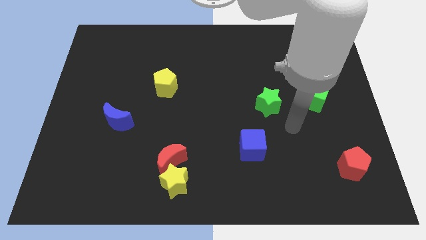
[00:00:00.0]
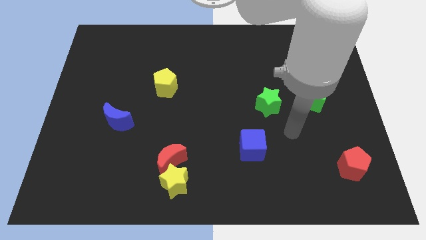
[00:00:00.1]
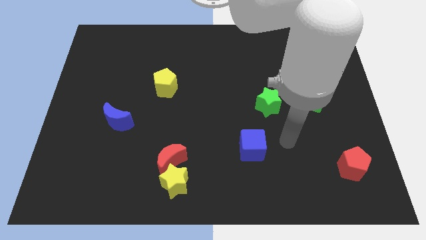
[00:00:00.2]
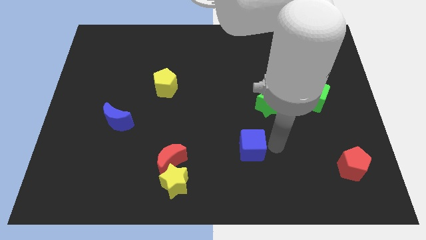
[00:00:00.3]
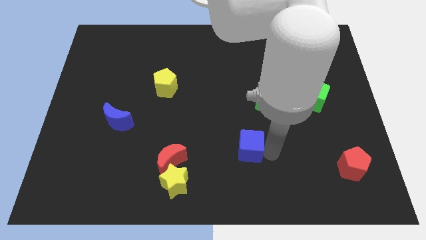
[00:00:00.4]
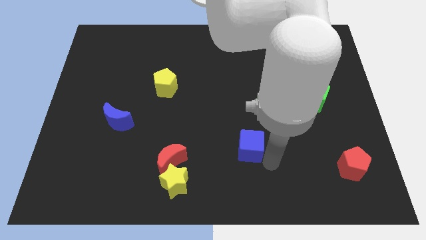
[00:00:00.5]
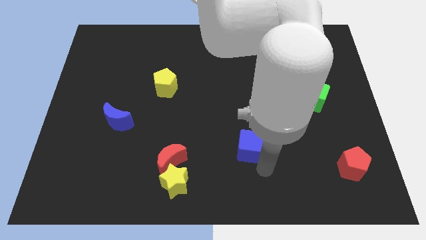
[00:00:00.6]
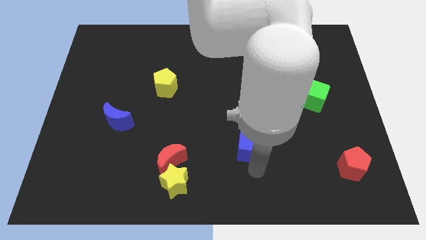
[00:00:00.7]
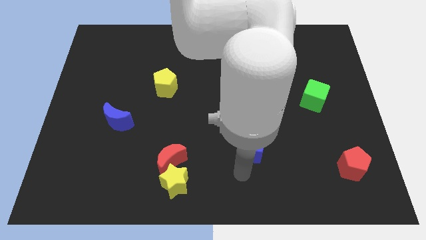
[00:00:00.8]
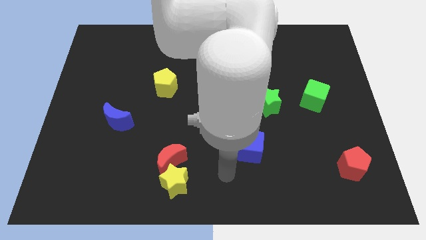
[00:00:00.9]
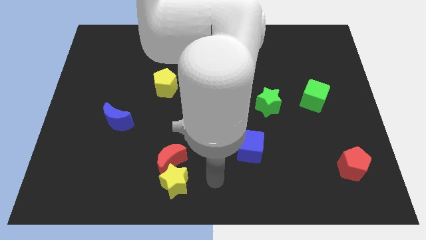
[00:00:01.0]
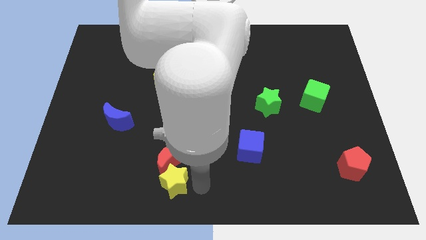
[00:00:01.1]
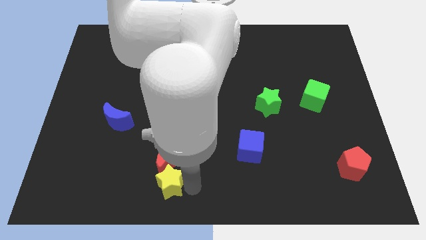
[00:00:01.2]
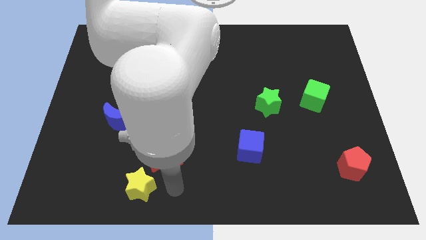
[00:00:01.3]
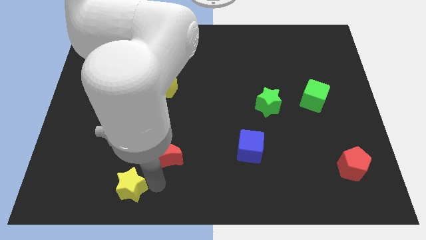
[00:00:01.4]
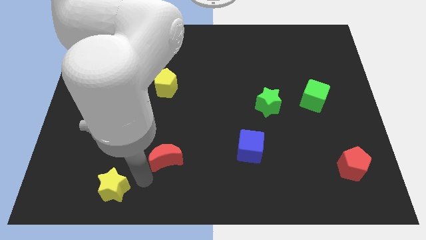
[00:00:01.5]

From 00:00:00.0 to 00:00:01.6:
separate the red moon from the yellow star

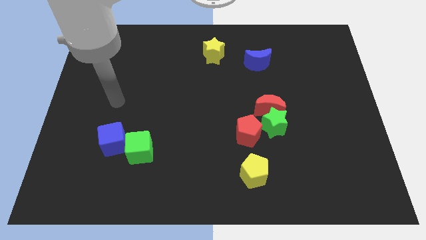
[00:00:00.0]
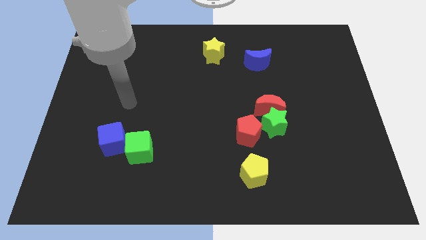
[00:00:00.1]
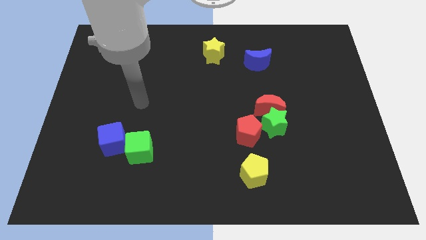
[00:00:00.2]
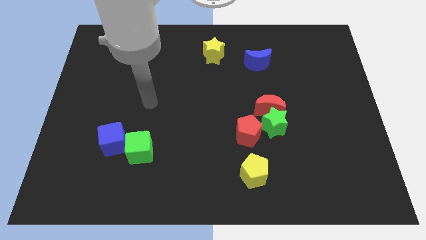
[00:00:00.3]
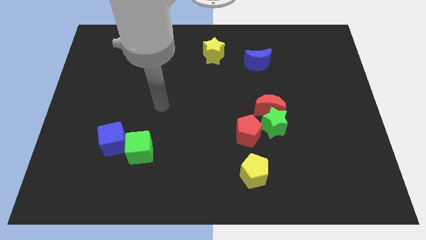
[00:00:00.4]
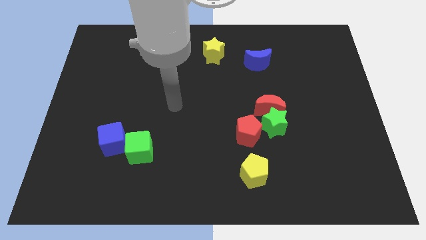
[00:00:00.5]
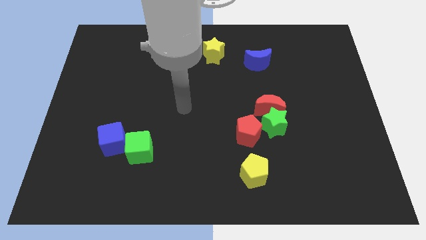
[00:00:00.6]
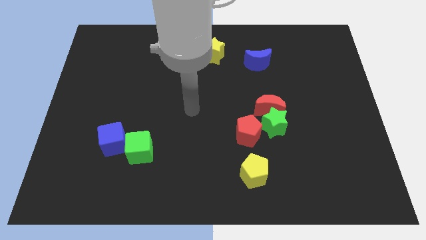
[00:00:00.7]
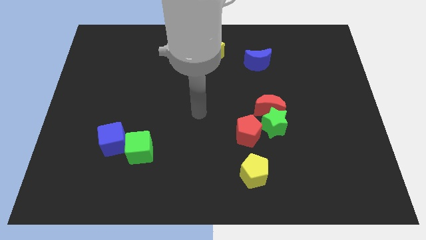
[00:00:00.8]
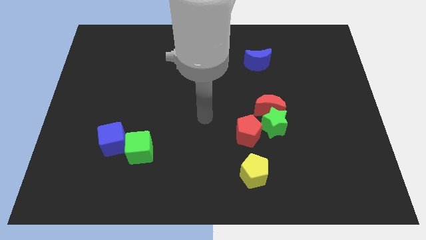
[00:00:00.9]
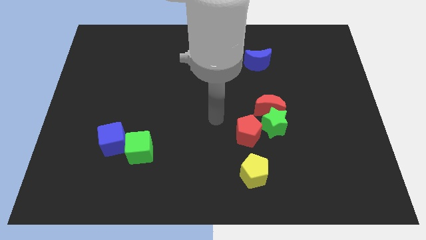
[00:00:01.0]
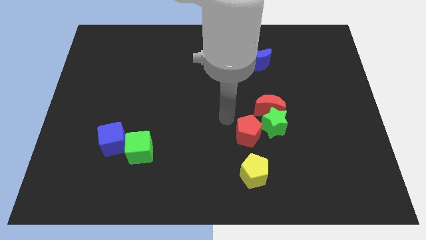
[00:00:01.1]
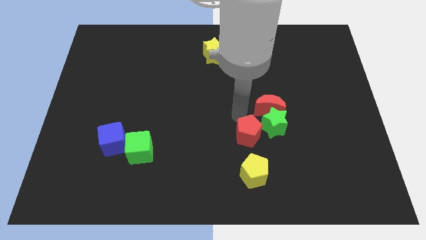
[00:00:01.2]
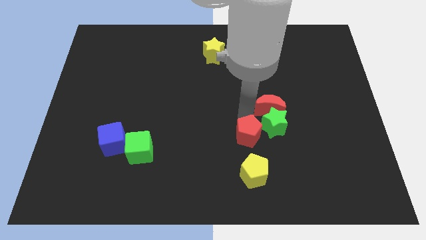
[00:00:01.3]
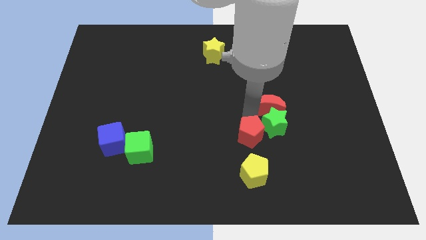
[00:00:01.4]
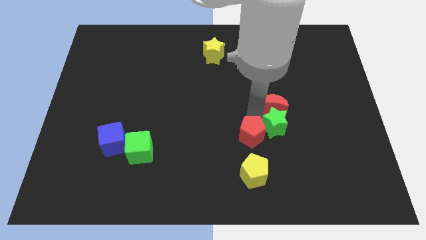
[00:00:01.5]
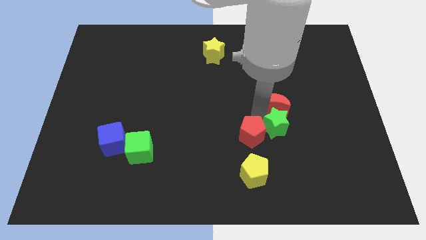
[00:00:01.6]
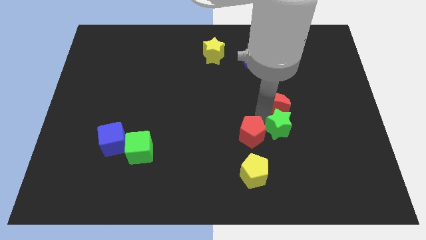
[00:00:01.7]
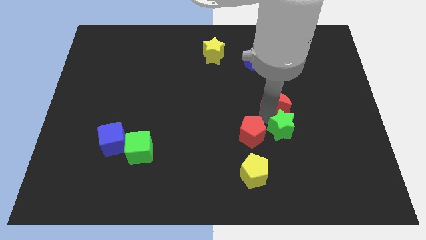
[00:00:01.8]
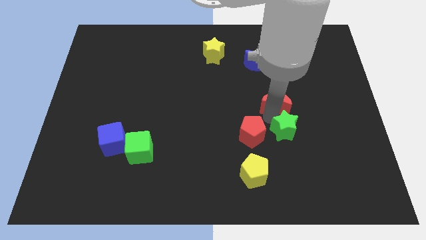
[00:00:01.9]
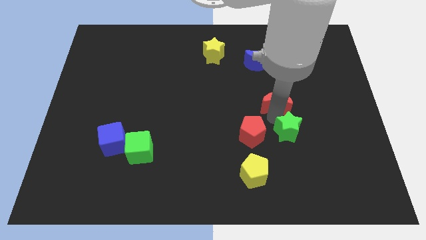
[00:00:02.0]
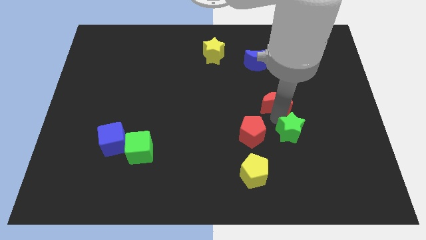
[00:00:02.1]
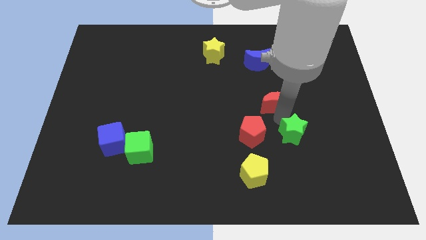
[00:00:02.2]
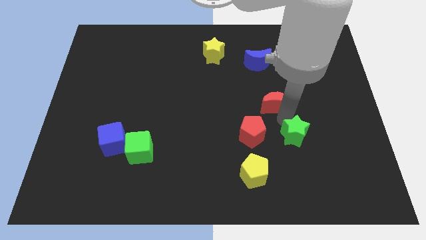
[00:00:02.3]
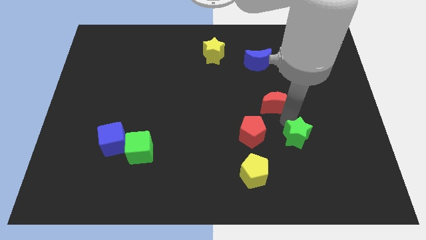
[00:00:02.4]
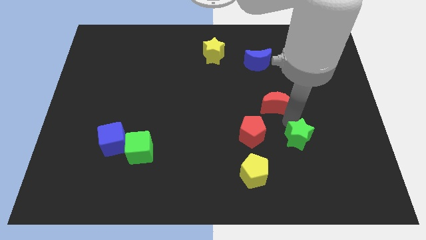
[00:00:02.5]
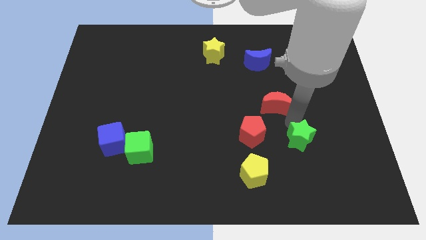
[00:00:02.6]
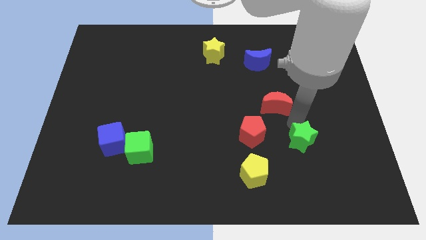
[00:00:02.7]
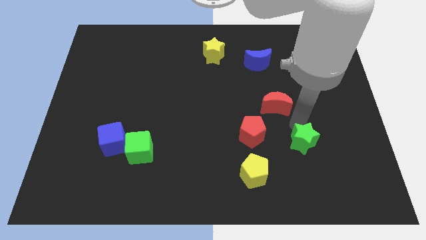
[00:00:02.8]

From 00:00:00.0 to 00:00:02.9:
separate the green star from the red moon and red pentagon

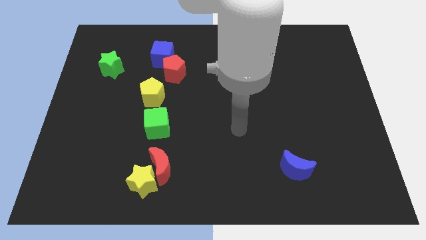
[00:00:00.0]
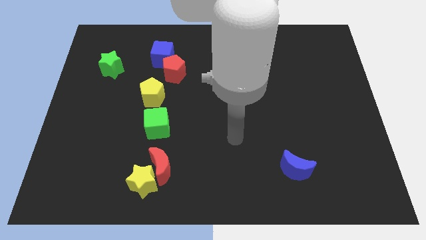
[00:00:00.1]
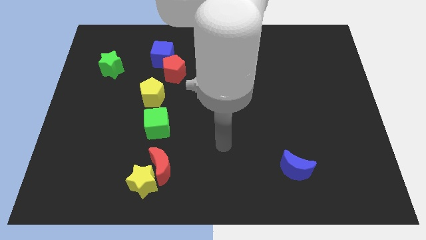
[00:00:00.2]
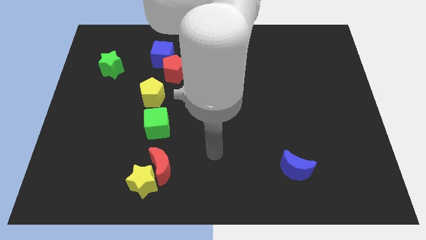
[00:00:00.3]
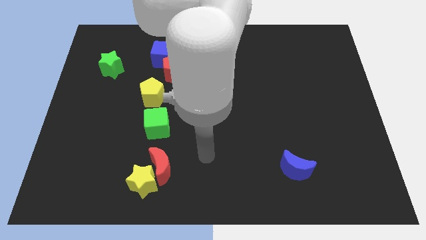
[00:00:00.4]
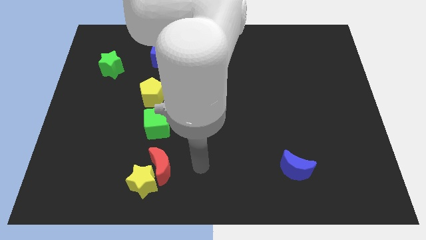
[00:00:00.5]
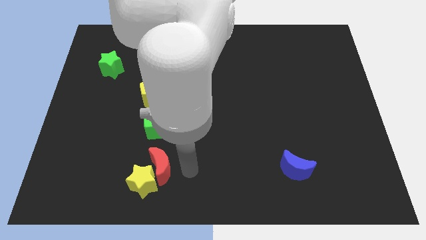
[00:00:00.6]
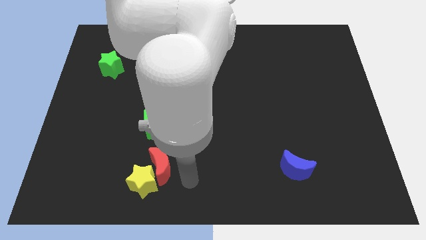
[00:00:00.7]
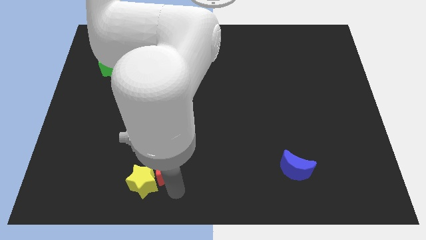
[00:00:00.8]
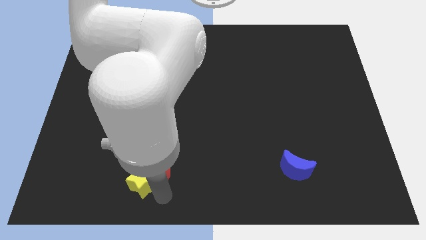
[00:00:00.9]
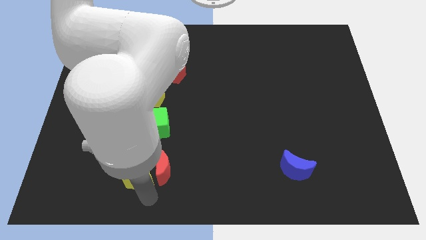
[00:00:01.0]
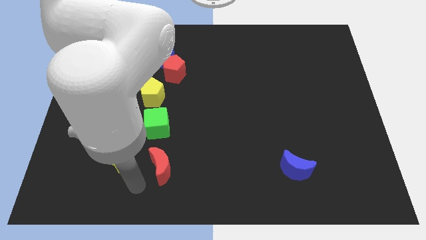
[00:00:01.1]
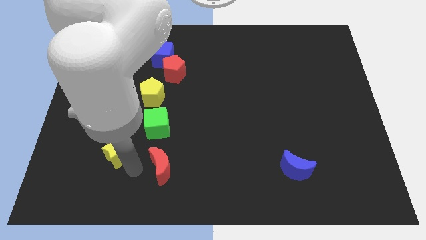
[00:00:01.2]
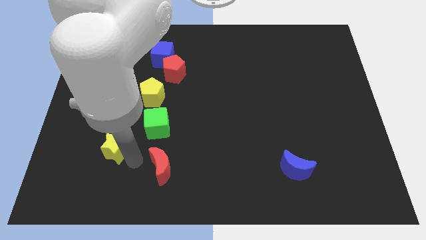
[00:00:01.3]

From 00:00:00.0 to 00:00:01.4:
pull the red moon apart from the yellow star

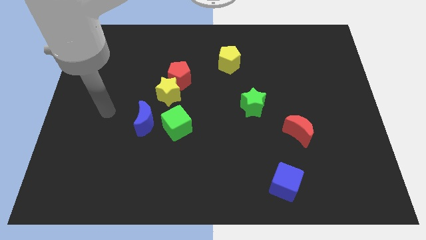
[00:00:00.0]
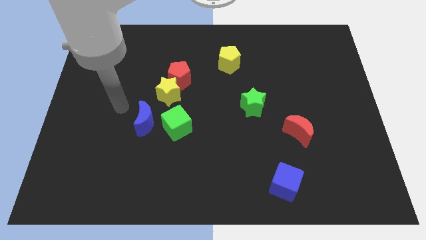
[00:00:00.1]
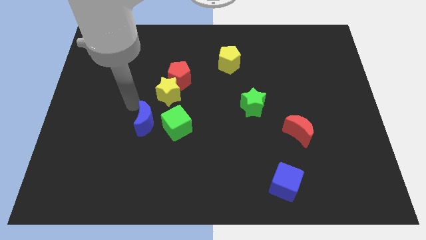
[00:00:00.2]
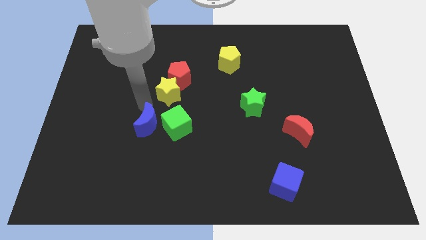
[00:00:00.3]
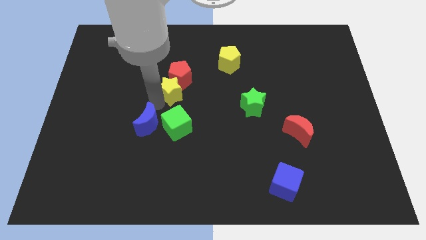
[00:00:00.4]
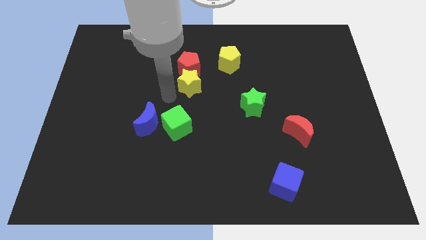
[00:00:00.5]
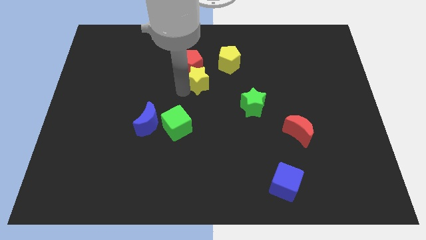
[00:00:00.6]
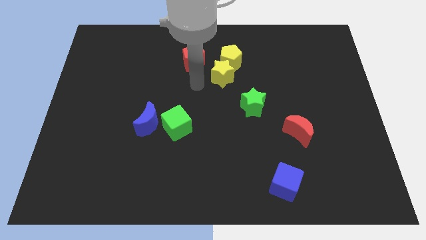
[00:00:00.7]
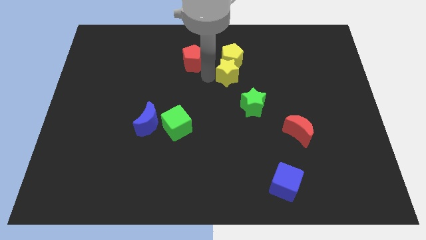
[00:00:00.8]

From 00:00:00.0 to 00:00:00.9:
pull the red pentagon apart from the yellow star

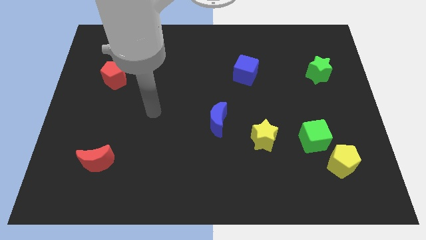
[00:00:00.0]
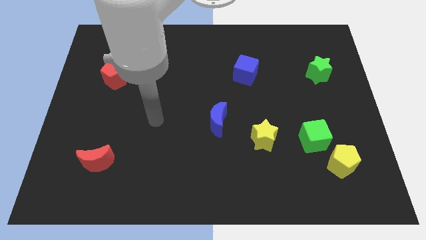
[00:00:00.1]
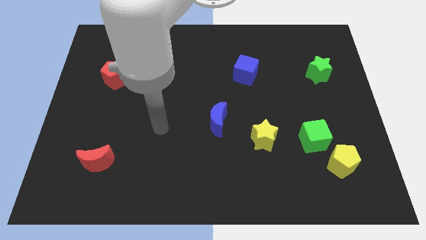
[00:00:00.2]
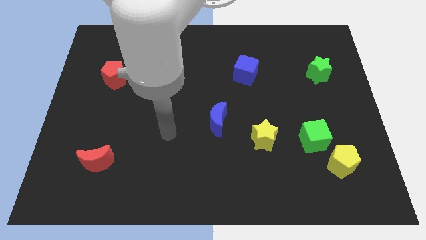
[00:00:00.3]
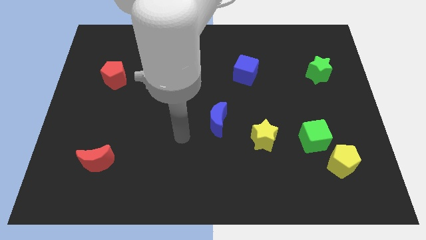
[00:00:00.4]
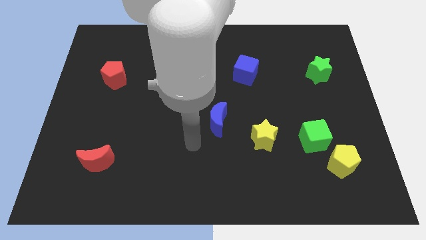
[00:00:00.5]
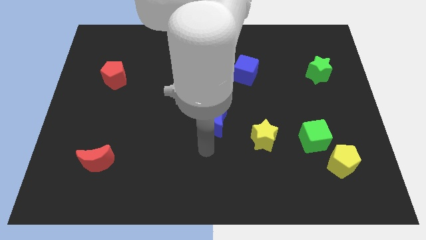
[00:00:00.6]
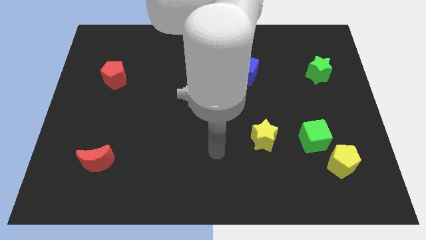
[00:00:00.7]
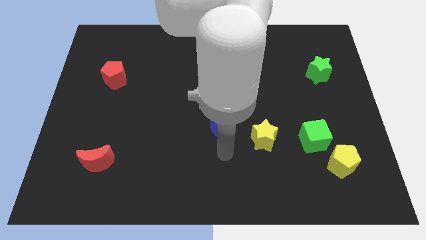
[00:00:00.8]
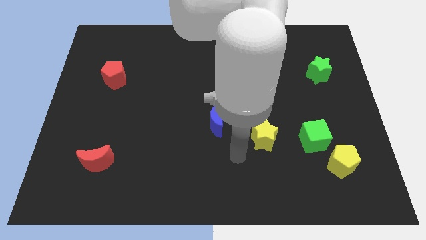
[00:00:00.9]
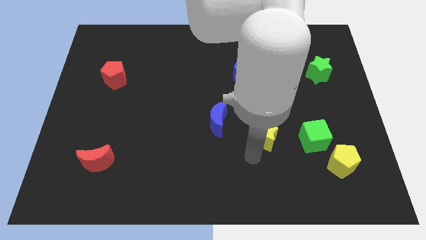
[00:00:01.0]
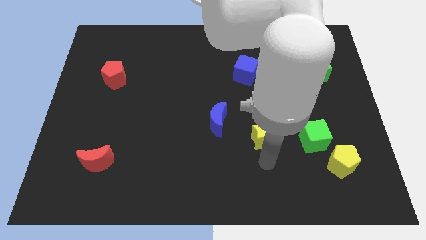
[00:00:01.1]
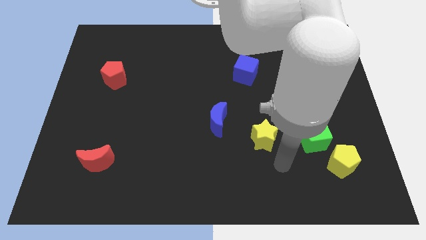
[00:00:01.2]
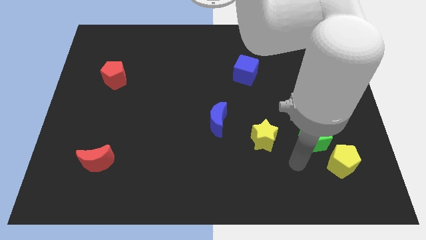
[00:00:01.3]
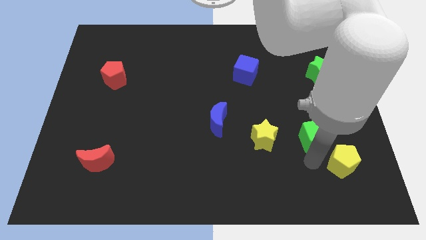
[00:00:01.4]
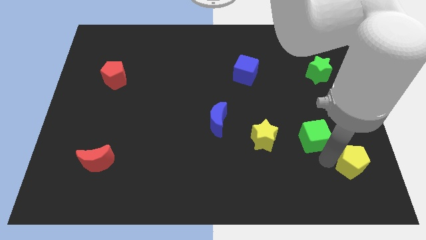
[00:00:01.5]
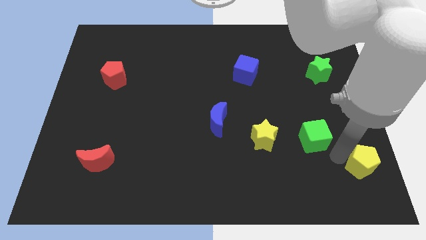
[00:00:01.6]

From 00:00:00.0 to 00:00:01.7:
pull the green cube apart from the yellow pentagon

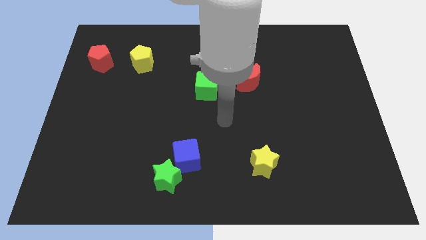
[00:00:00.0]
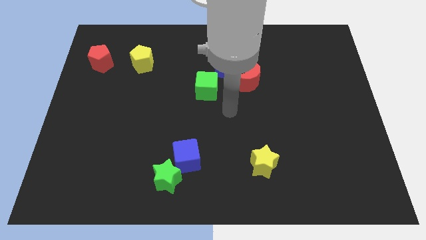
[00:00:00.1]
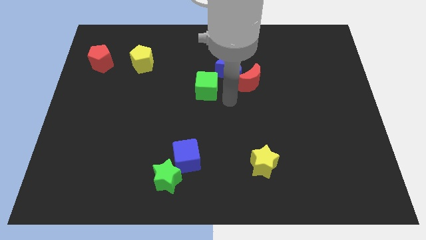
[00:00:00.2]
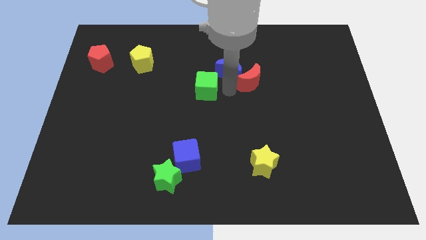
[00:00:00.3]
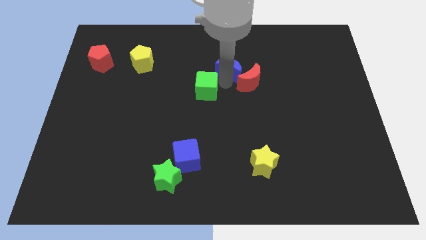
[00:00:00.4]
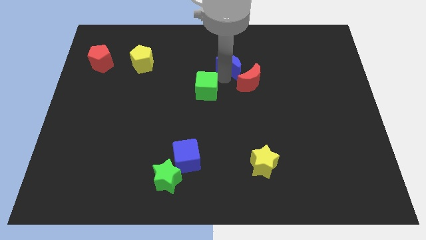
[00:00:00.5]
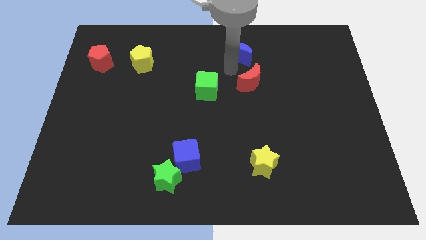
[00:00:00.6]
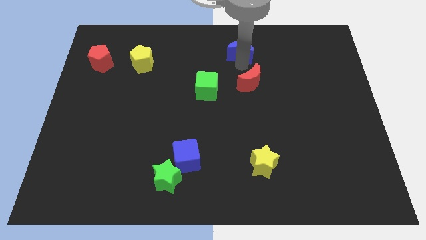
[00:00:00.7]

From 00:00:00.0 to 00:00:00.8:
separate the red moon from the blue moon
